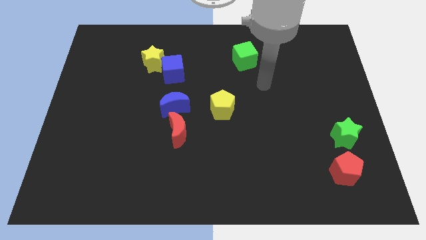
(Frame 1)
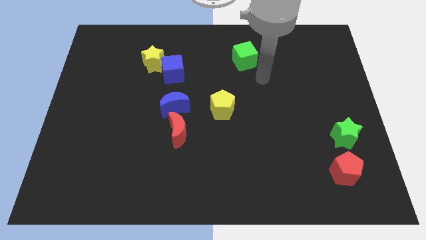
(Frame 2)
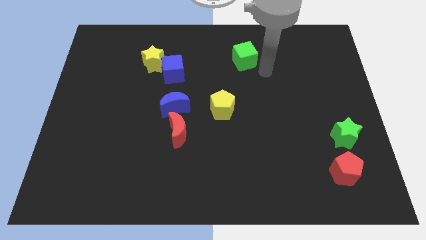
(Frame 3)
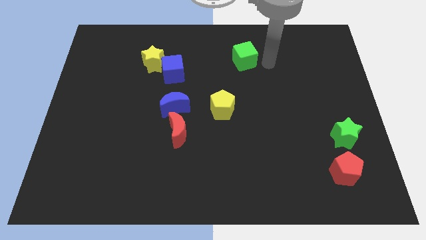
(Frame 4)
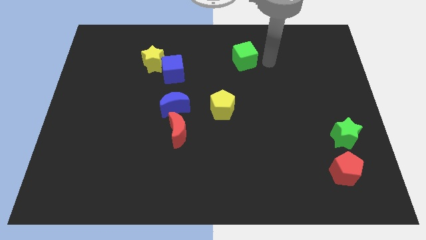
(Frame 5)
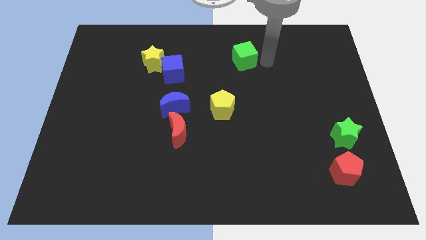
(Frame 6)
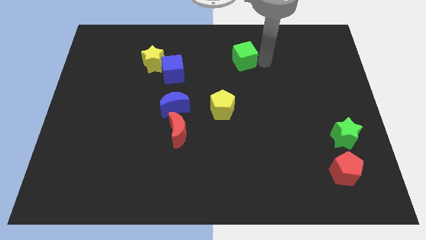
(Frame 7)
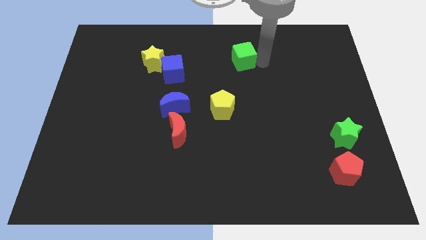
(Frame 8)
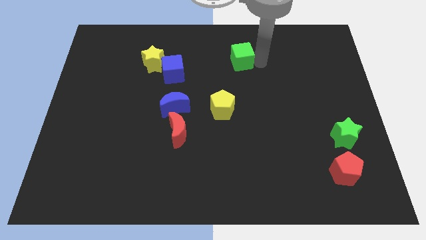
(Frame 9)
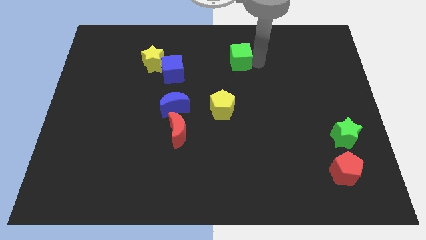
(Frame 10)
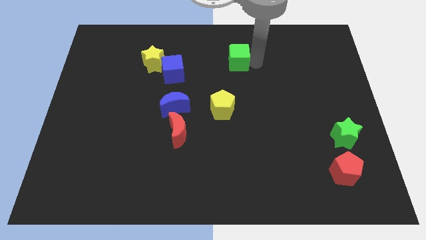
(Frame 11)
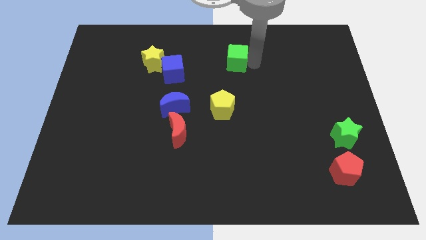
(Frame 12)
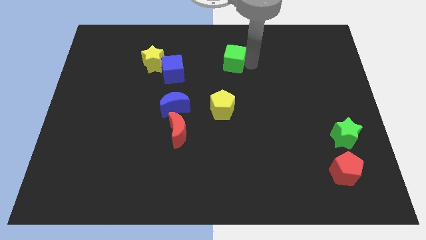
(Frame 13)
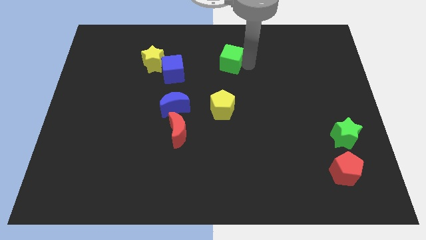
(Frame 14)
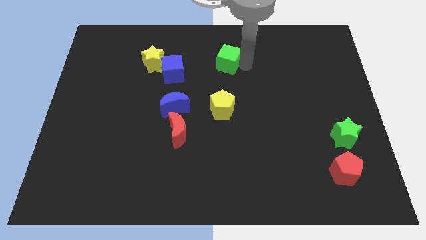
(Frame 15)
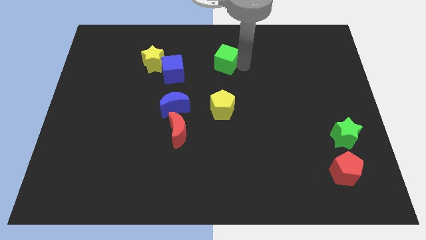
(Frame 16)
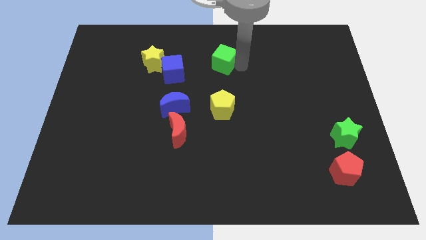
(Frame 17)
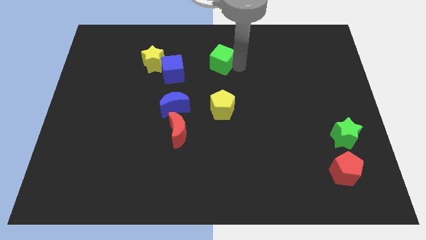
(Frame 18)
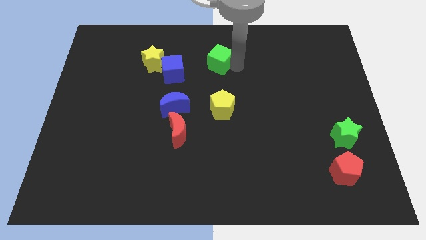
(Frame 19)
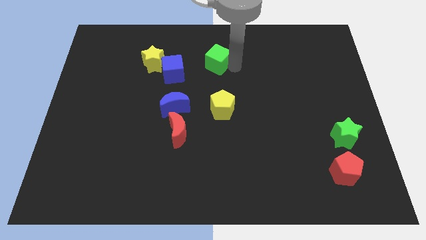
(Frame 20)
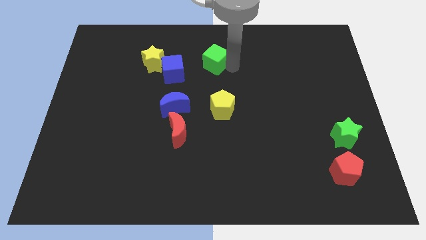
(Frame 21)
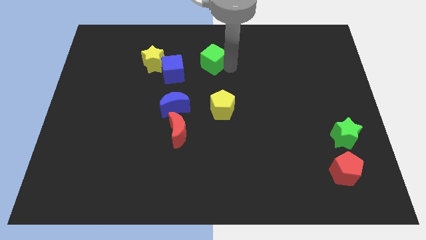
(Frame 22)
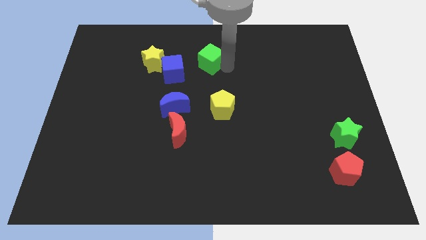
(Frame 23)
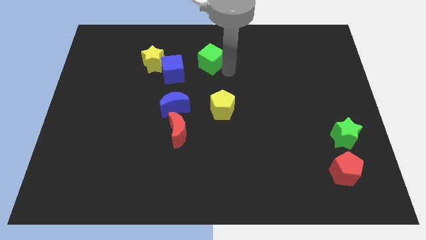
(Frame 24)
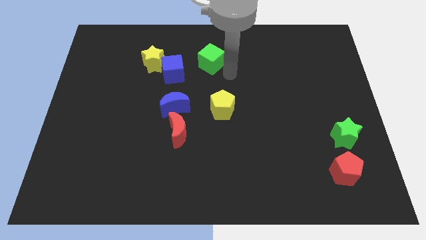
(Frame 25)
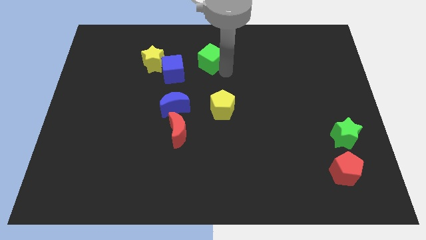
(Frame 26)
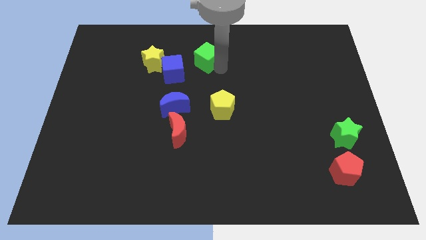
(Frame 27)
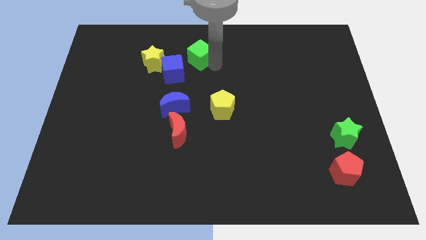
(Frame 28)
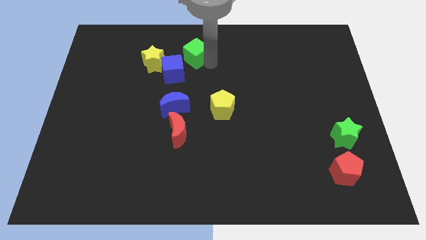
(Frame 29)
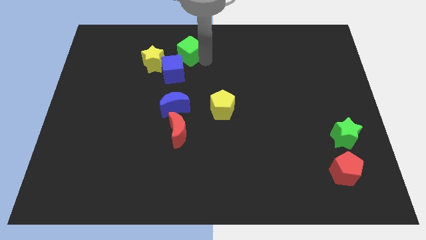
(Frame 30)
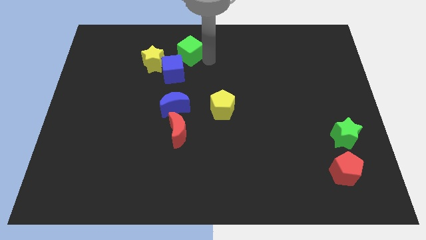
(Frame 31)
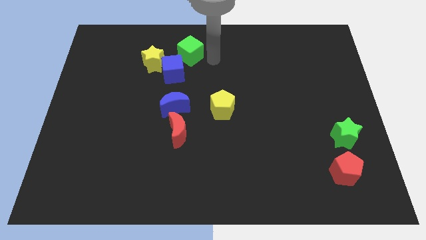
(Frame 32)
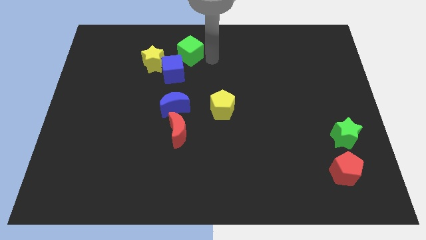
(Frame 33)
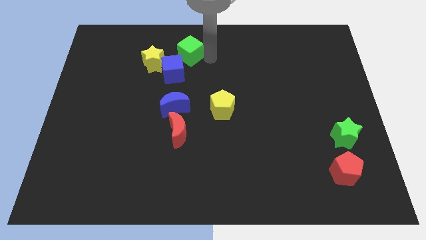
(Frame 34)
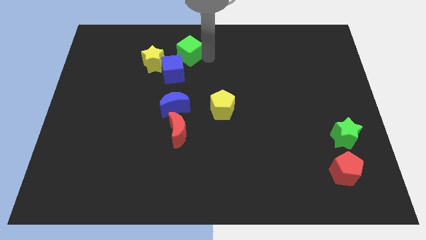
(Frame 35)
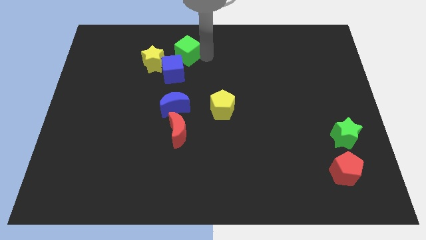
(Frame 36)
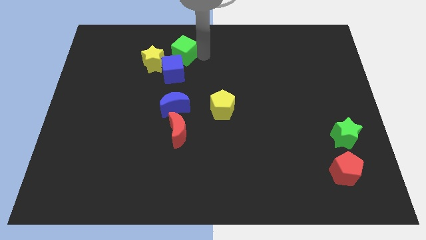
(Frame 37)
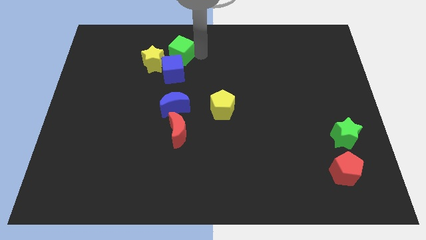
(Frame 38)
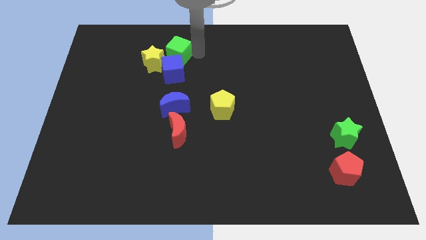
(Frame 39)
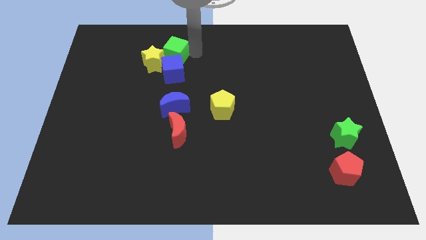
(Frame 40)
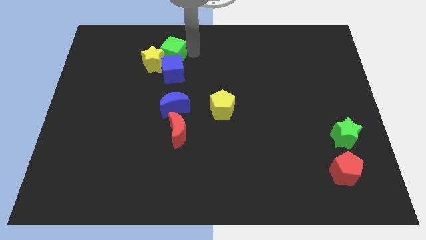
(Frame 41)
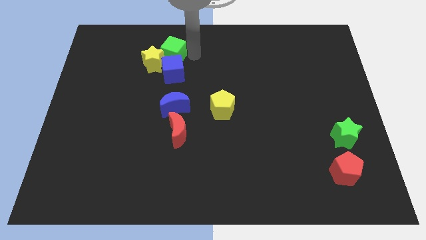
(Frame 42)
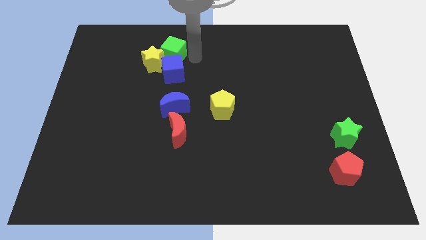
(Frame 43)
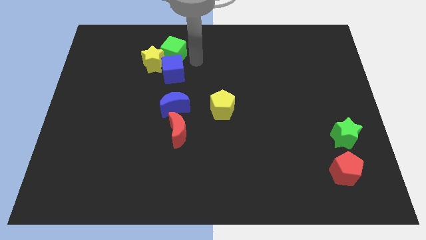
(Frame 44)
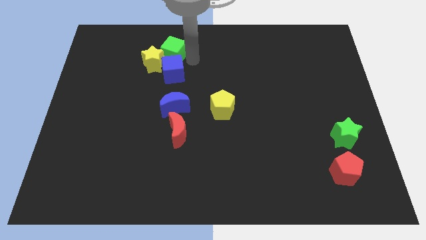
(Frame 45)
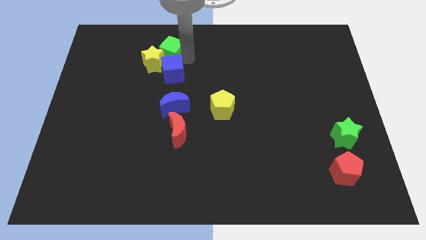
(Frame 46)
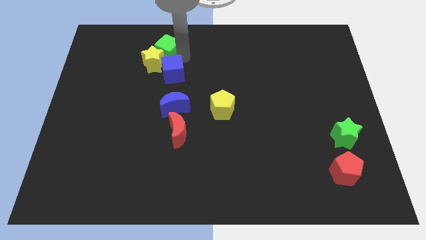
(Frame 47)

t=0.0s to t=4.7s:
push the green cube left

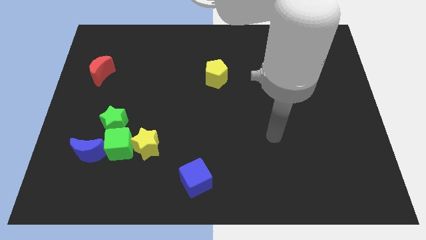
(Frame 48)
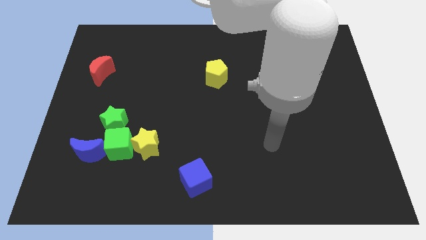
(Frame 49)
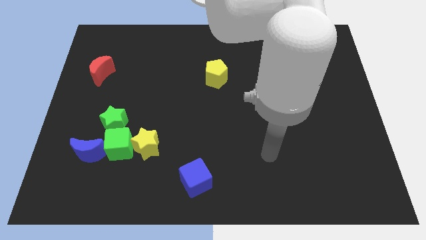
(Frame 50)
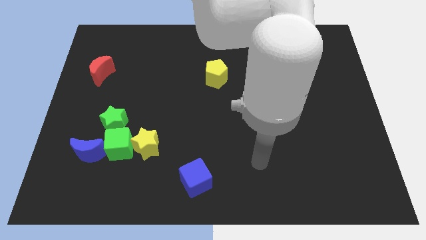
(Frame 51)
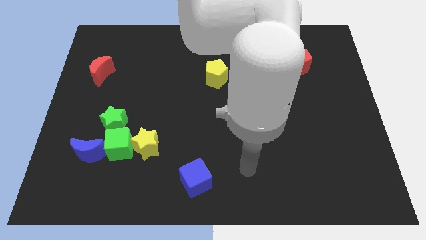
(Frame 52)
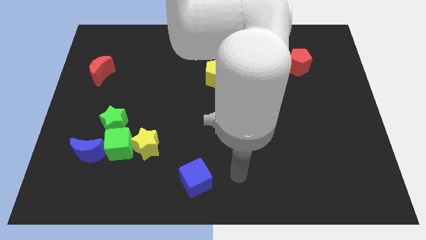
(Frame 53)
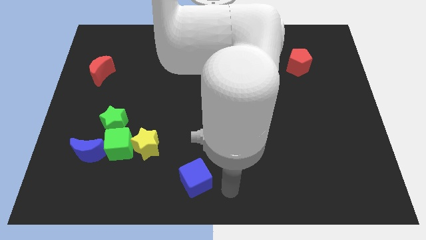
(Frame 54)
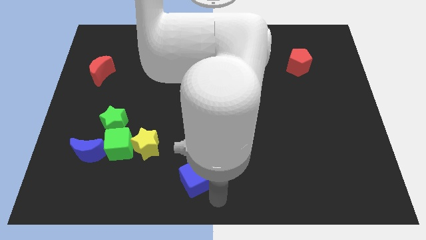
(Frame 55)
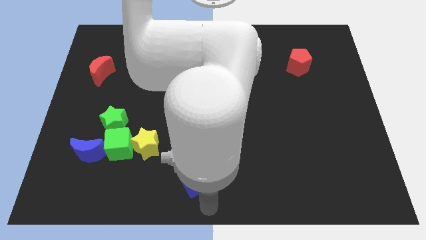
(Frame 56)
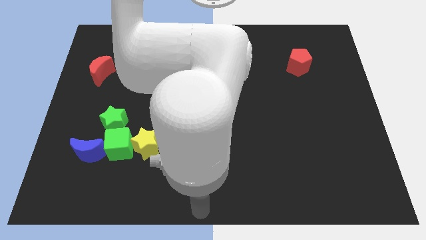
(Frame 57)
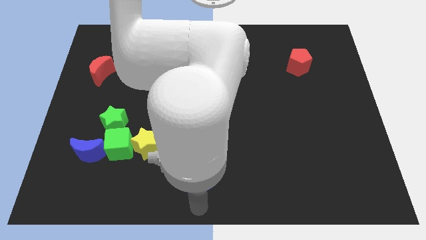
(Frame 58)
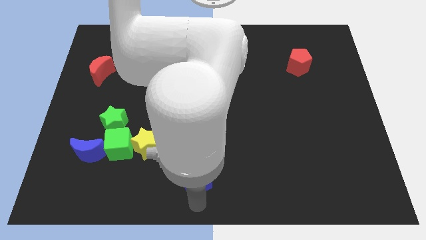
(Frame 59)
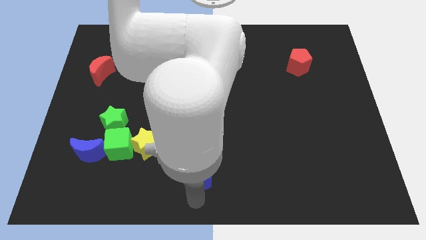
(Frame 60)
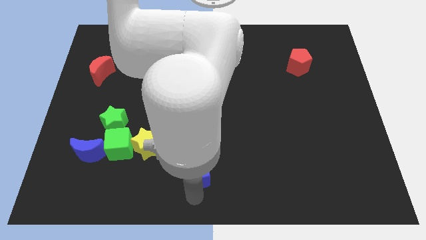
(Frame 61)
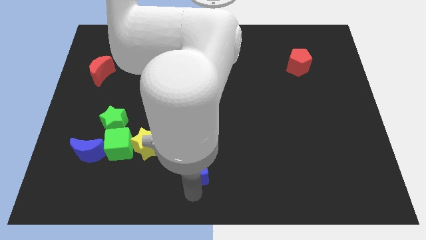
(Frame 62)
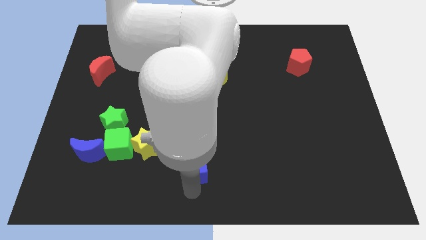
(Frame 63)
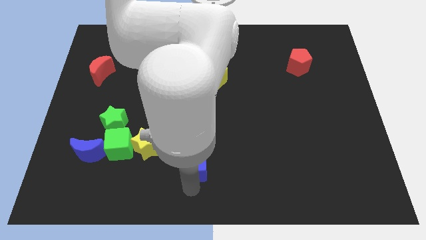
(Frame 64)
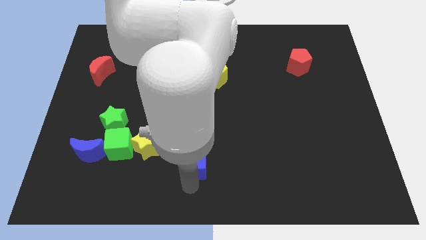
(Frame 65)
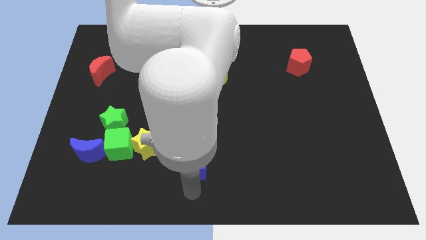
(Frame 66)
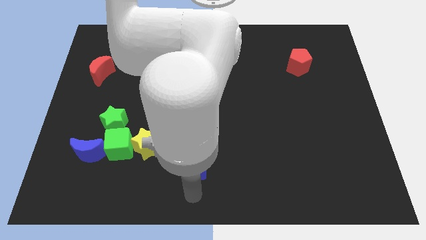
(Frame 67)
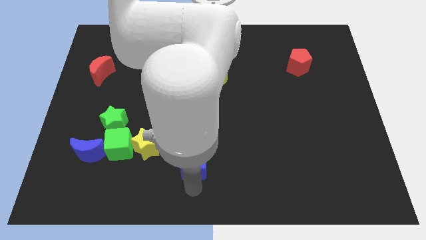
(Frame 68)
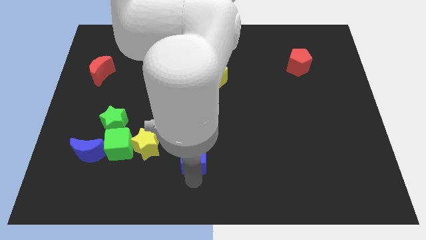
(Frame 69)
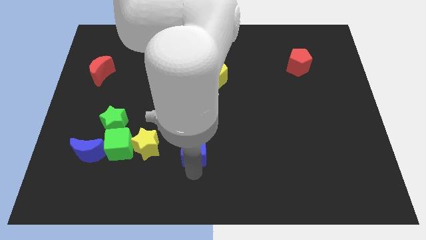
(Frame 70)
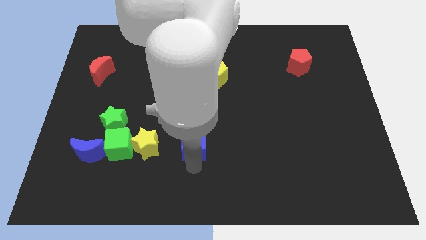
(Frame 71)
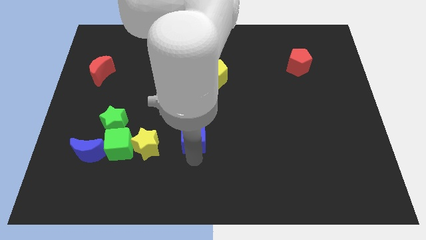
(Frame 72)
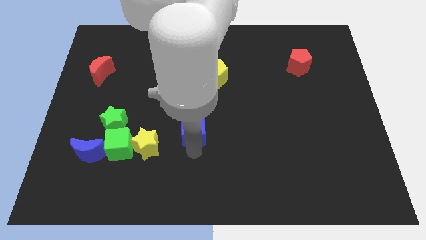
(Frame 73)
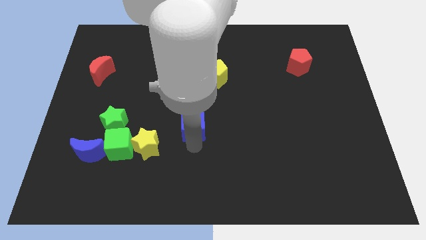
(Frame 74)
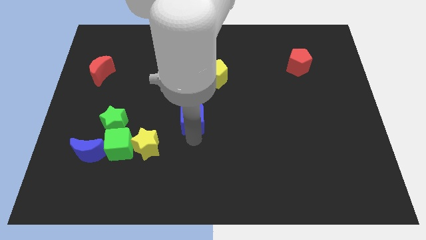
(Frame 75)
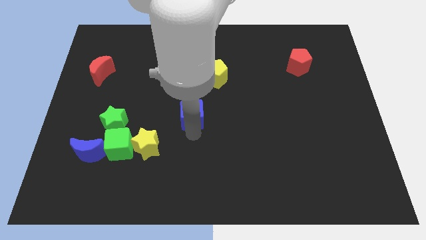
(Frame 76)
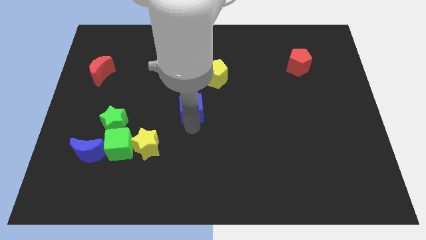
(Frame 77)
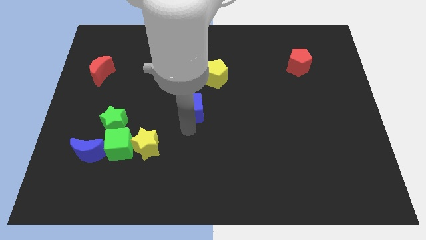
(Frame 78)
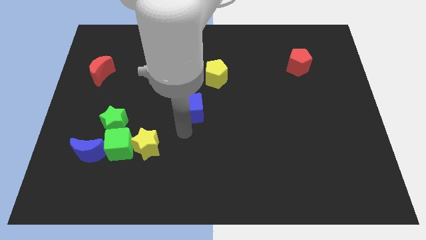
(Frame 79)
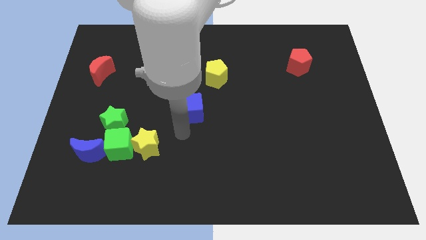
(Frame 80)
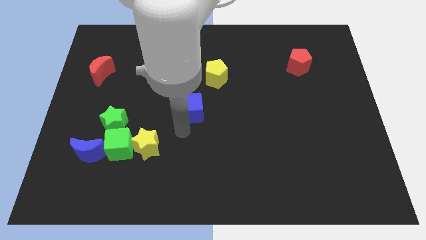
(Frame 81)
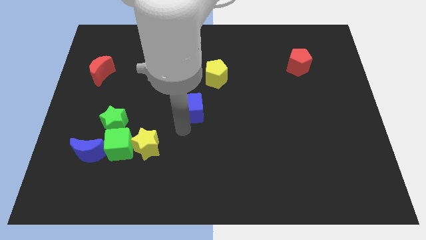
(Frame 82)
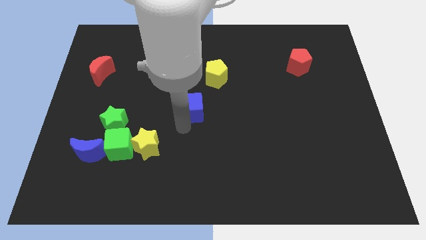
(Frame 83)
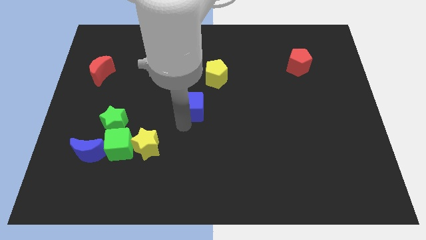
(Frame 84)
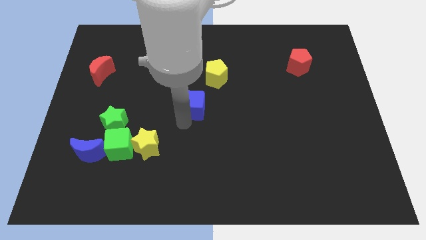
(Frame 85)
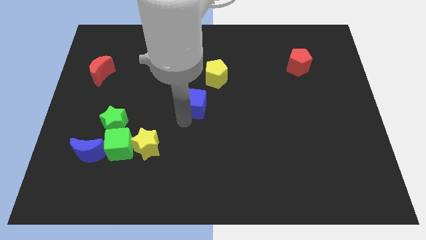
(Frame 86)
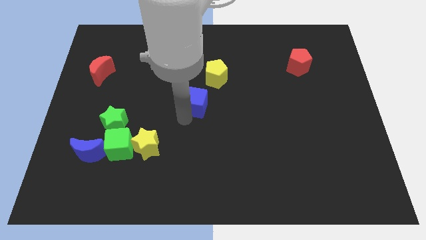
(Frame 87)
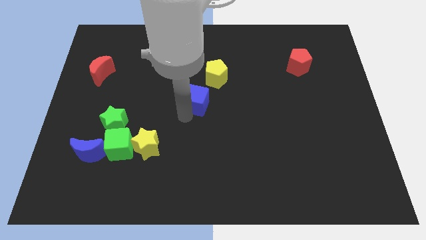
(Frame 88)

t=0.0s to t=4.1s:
move the blue cube upwards
